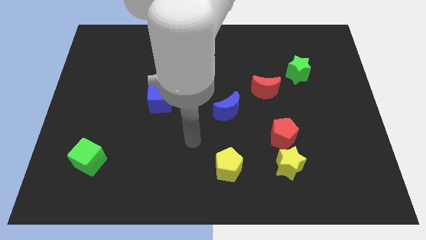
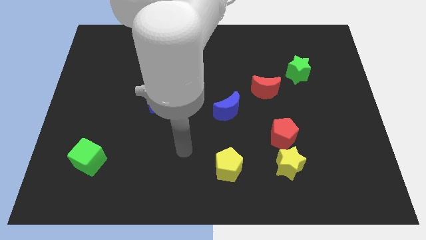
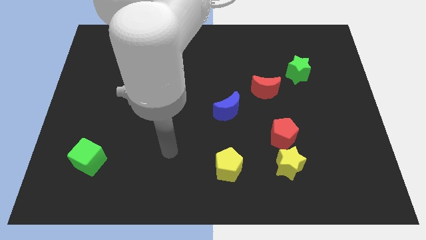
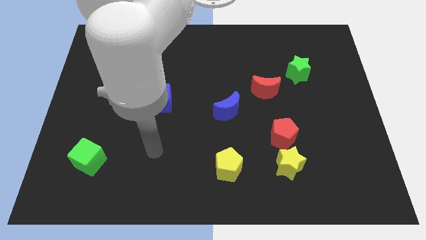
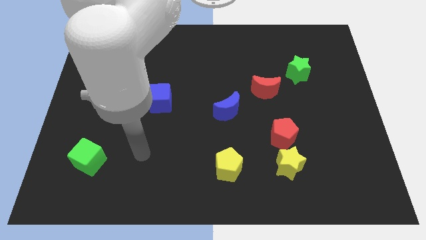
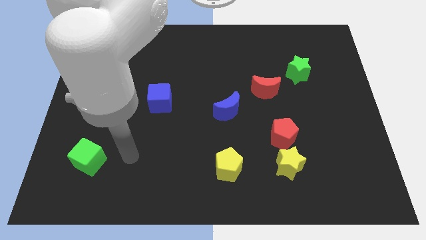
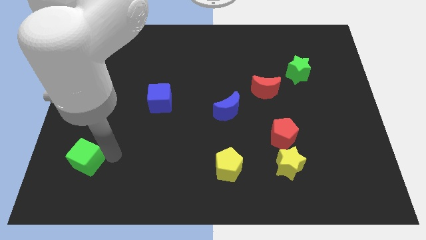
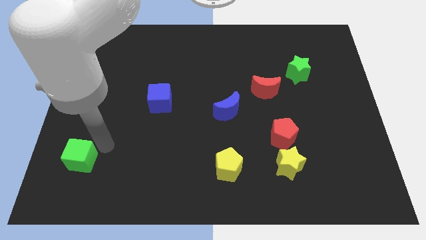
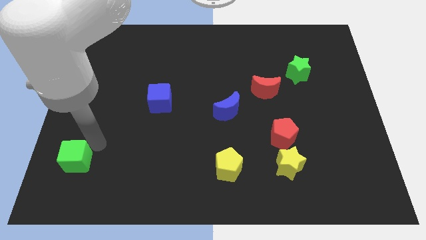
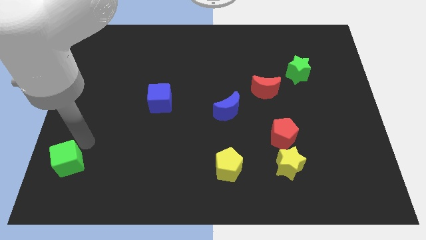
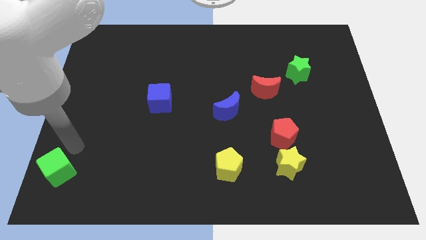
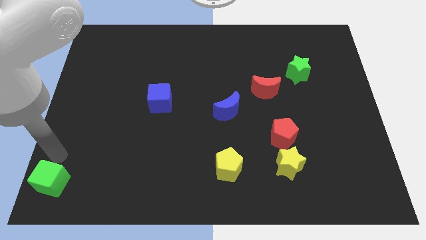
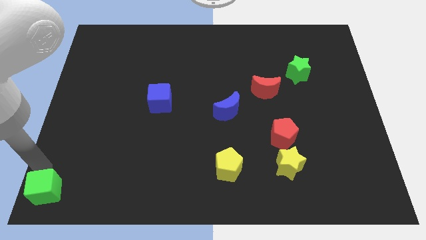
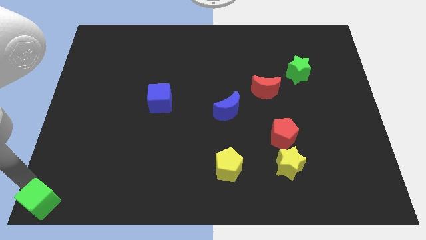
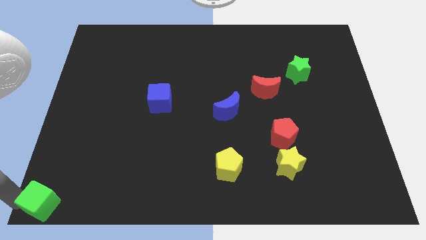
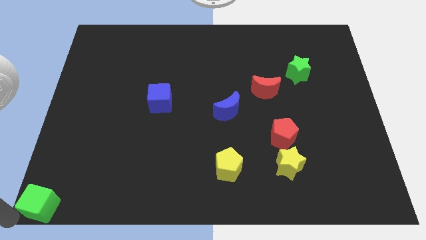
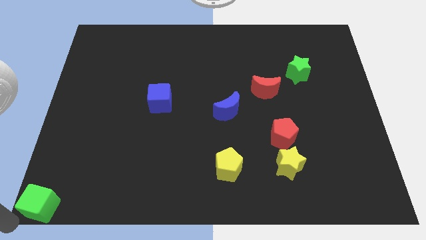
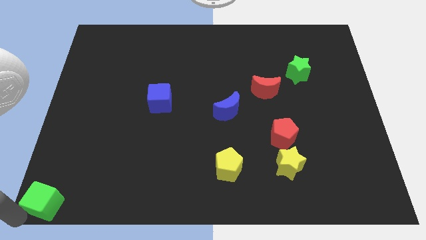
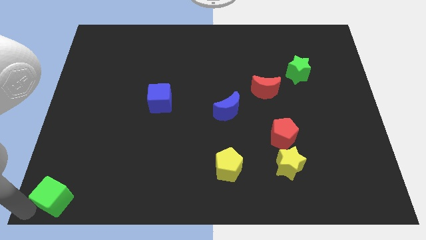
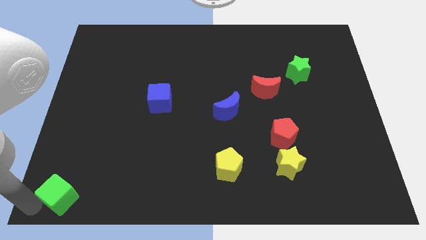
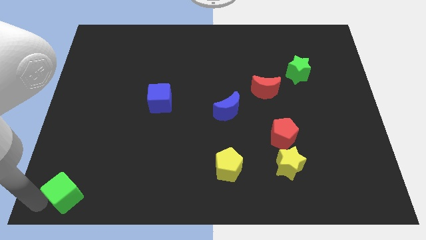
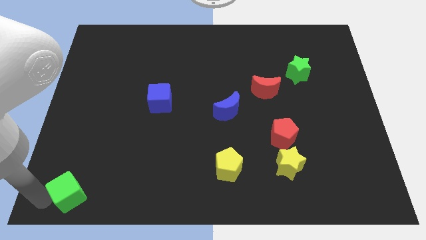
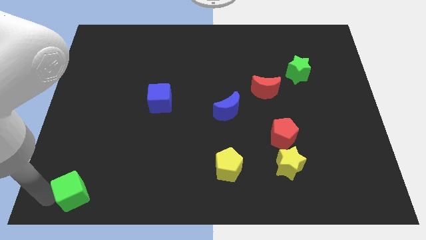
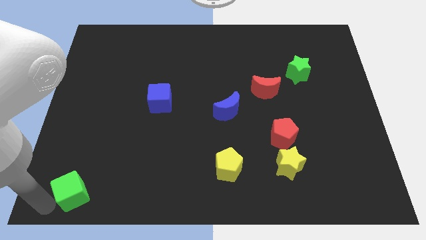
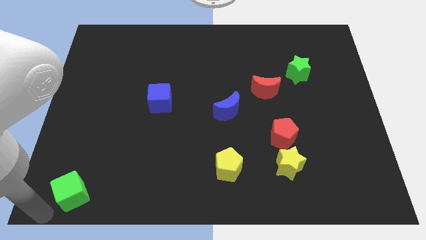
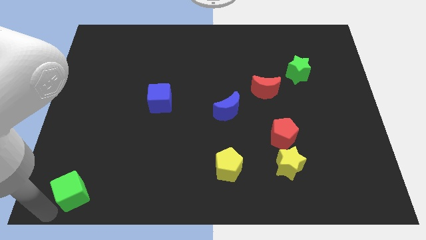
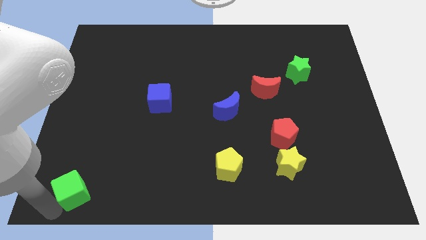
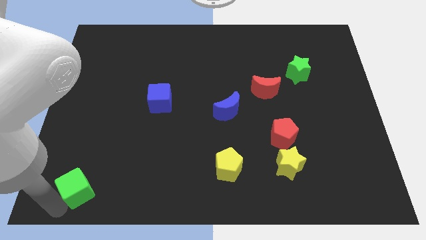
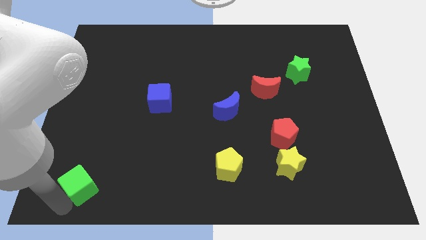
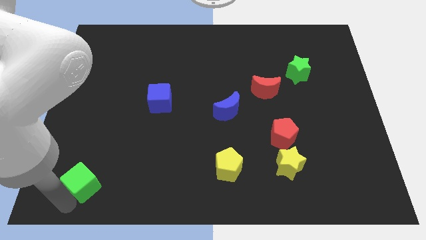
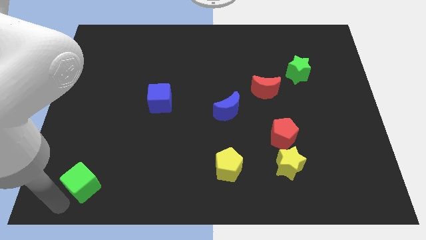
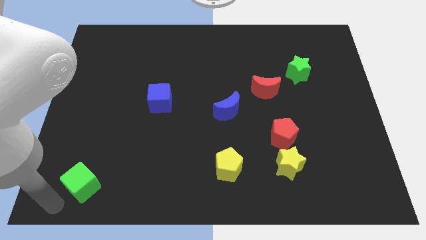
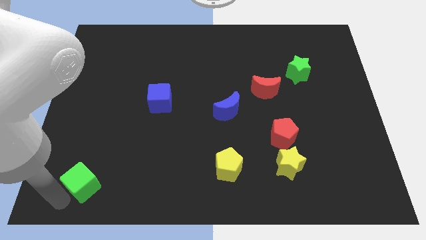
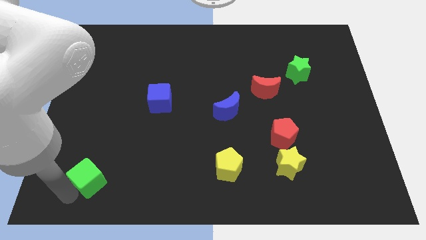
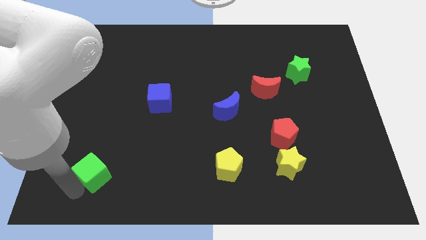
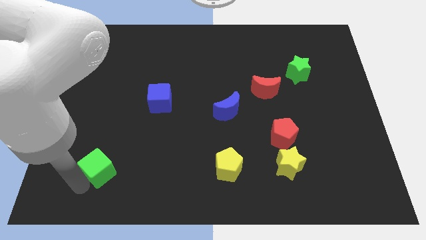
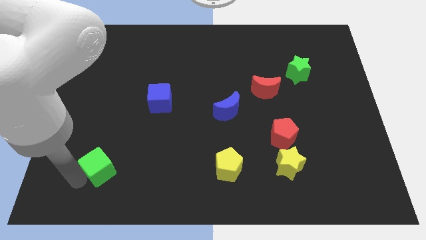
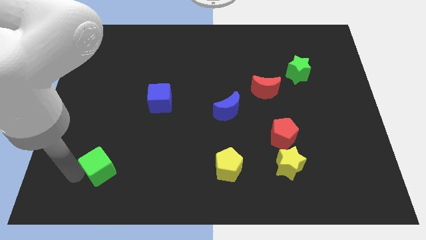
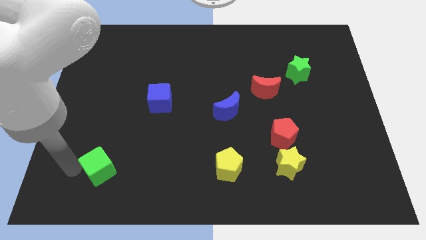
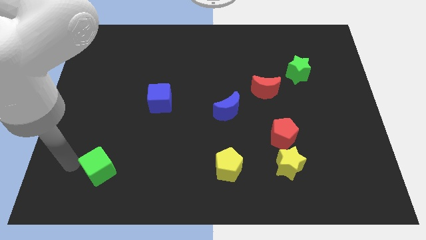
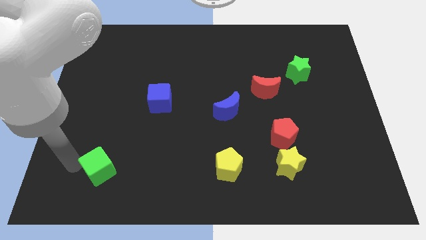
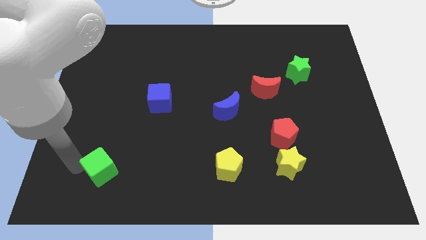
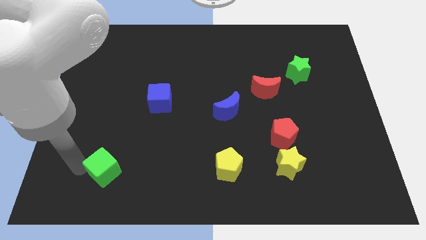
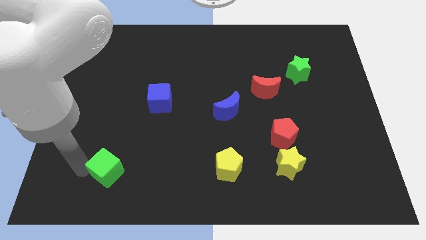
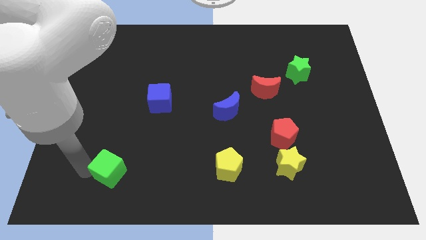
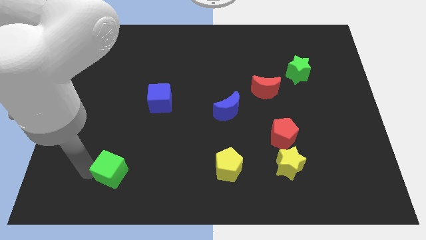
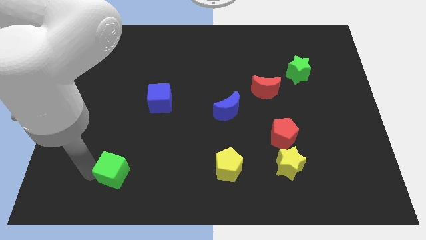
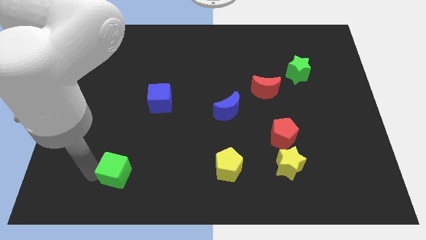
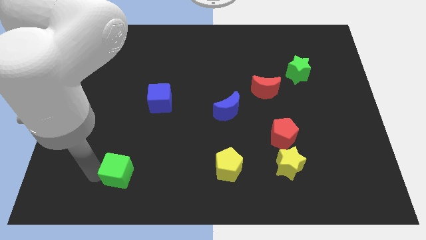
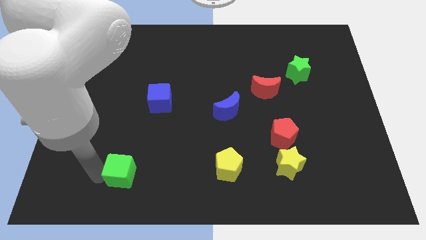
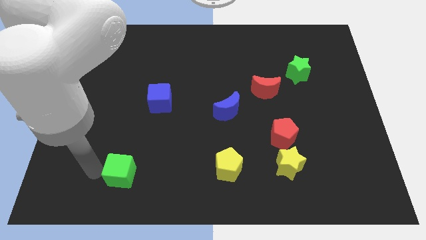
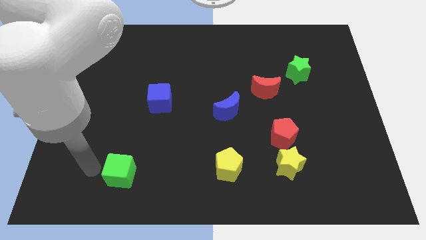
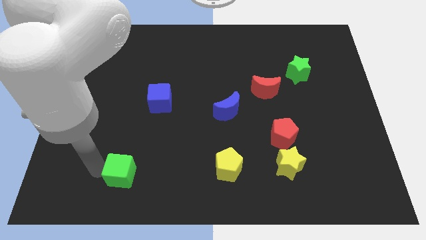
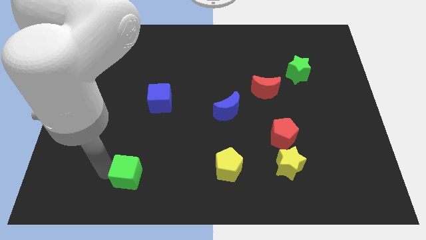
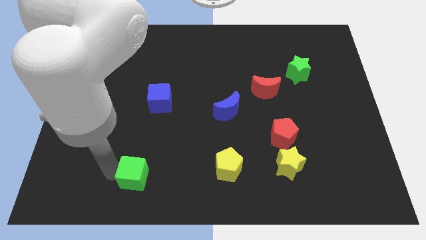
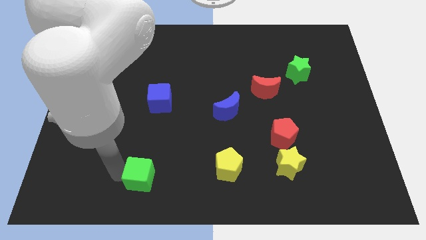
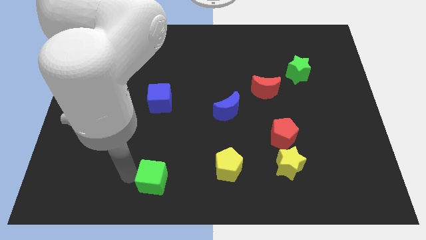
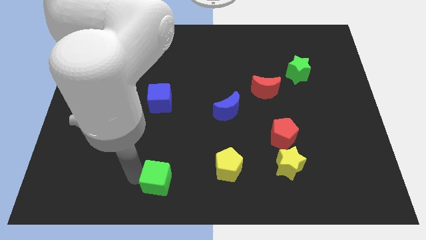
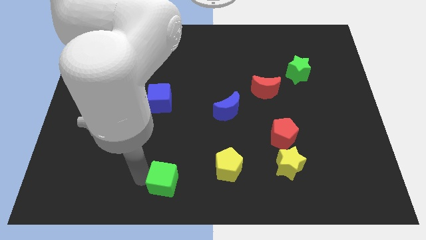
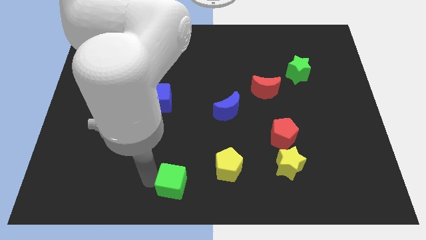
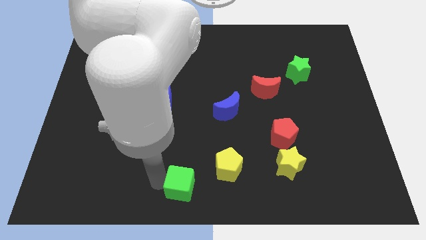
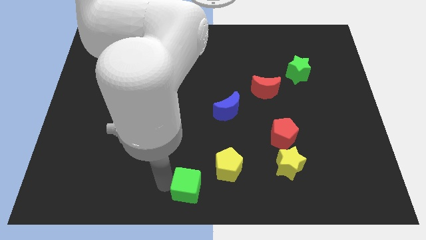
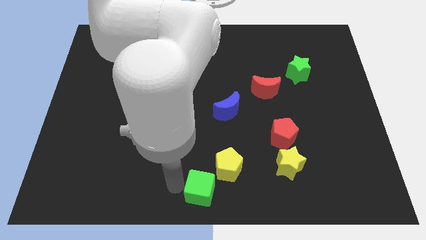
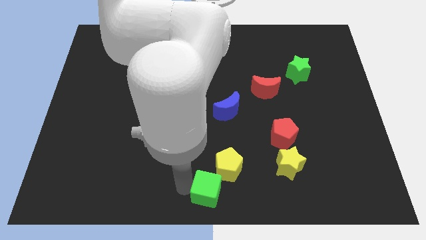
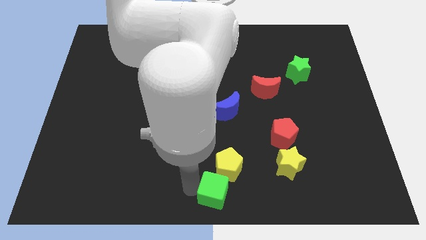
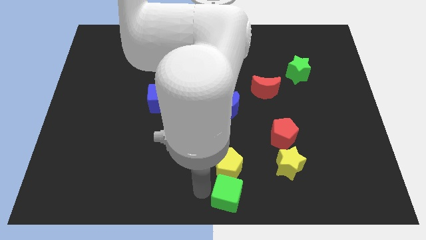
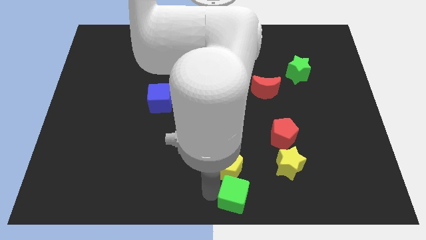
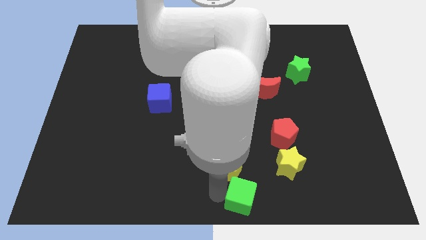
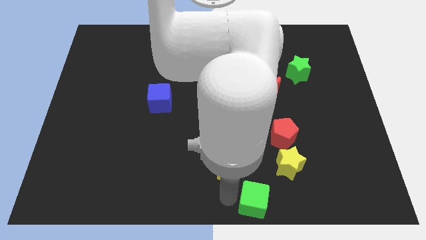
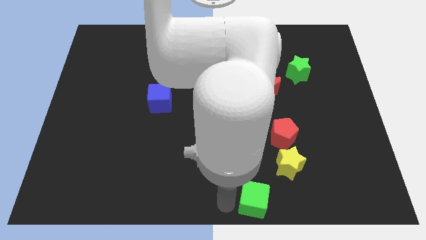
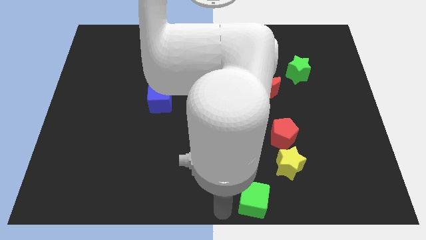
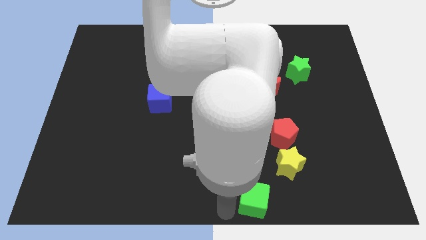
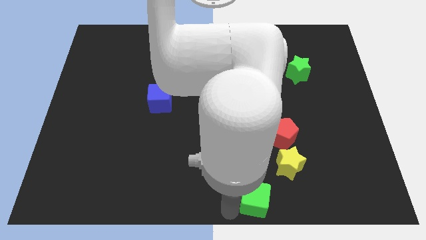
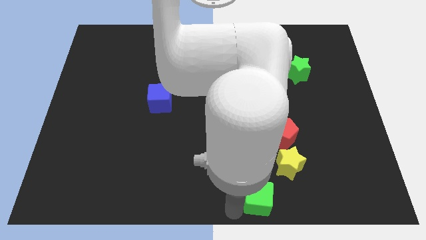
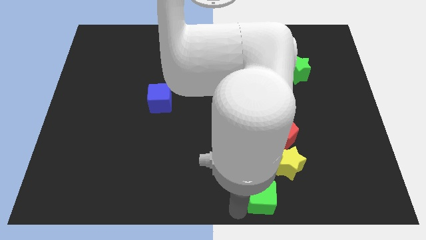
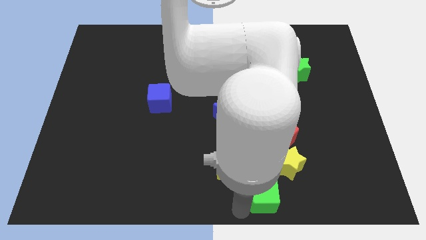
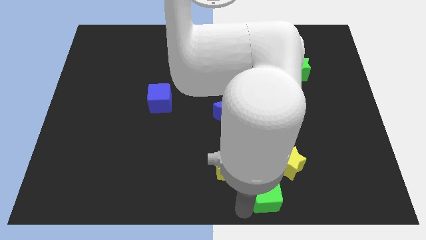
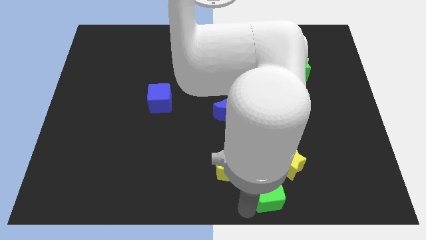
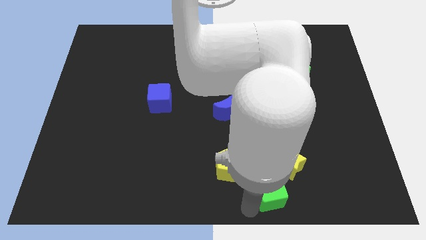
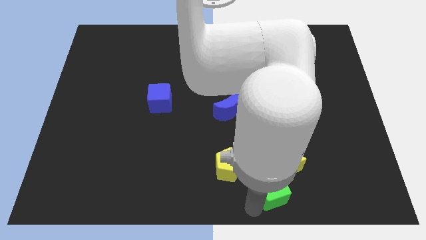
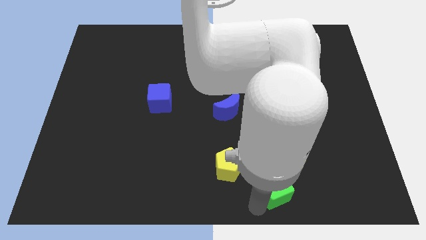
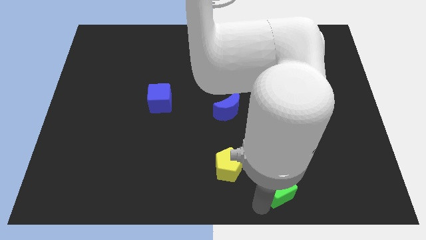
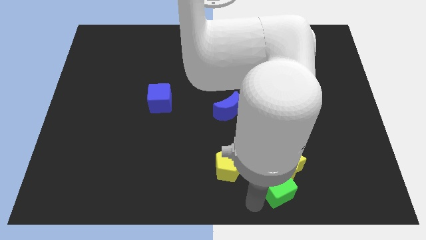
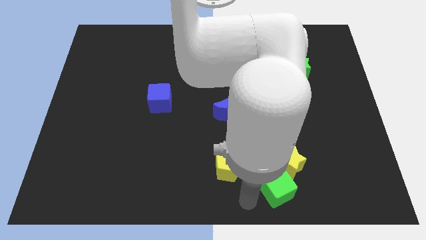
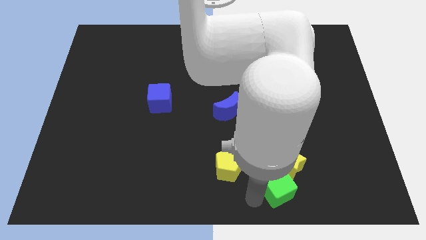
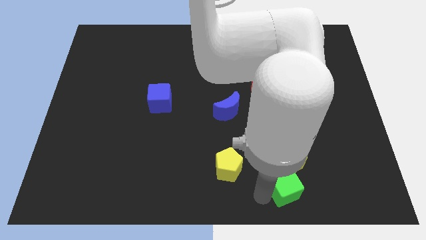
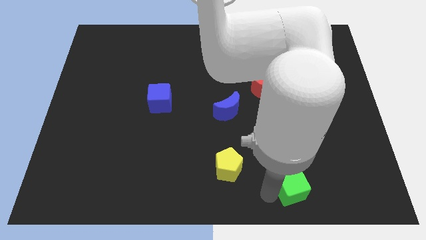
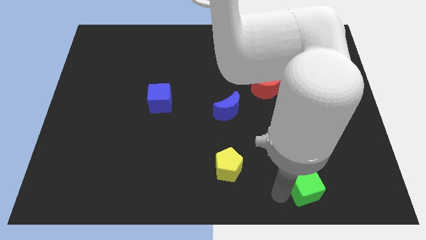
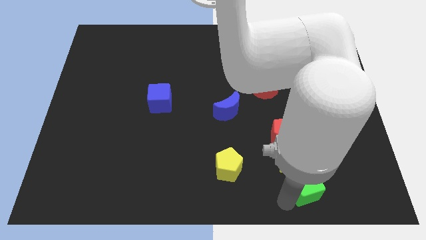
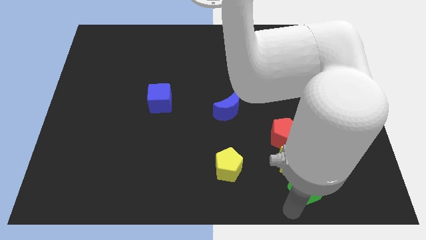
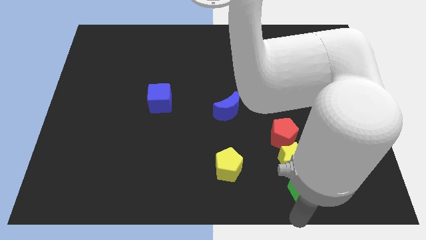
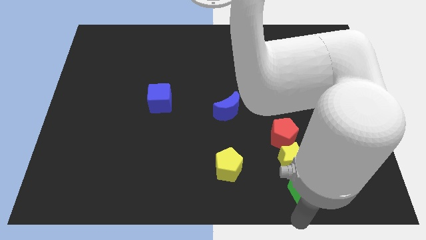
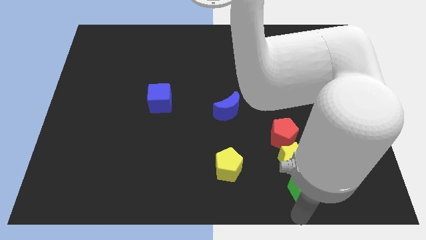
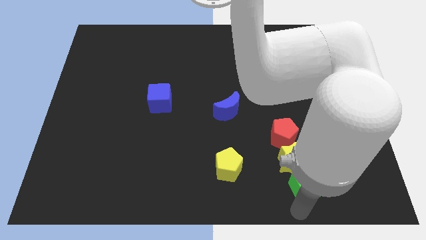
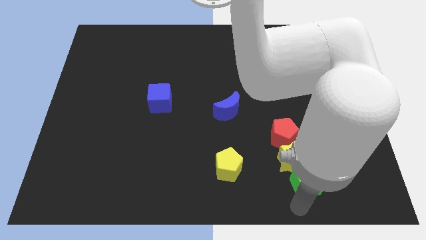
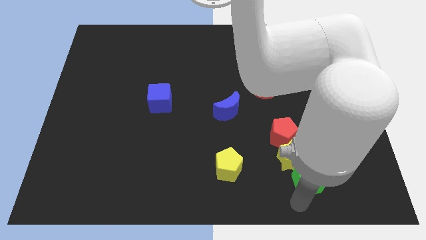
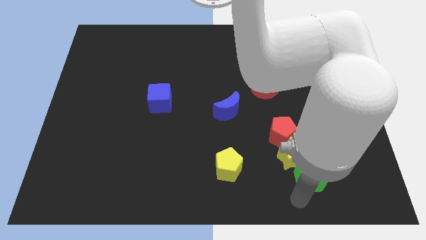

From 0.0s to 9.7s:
move the green cube diagonally down and to the right of the red pentagon
